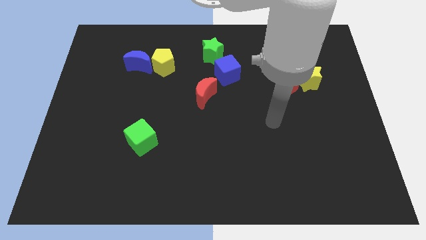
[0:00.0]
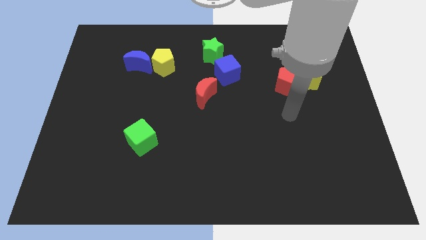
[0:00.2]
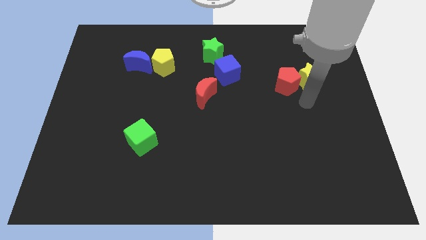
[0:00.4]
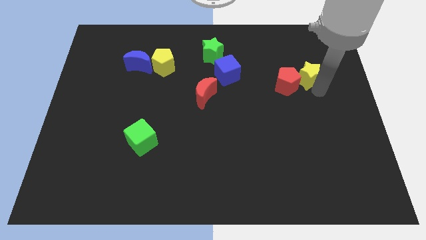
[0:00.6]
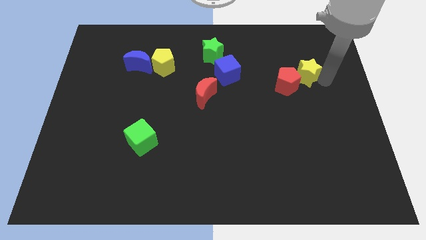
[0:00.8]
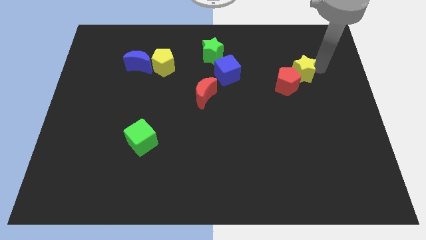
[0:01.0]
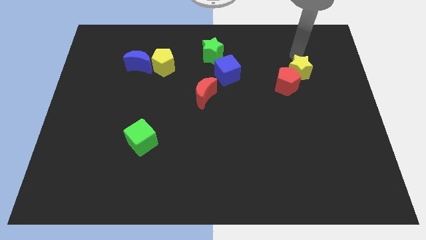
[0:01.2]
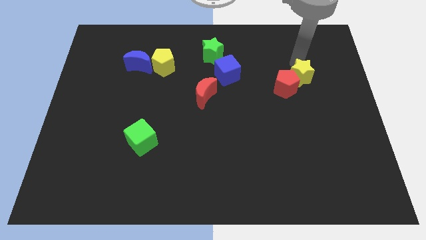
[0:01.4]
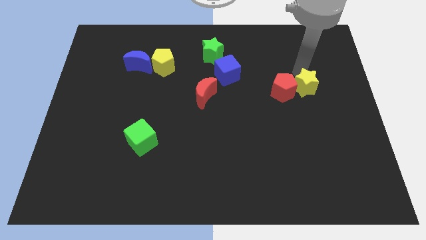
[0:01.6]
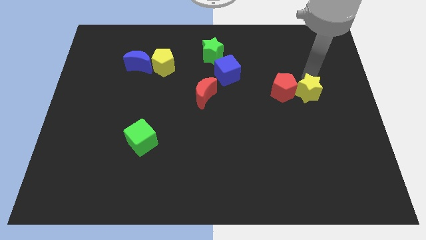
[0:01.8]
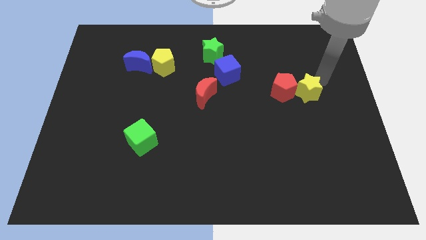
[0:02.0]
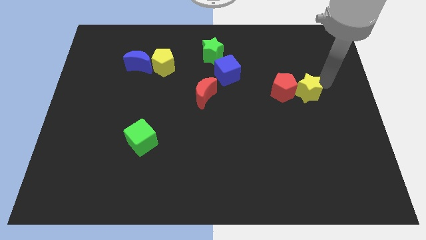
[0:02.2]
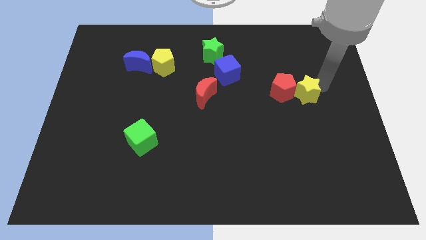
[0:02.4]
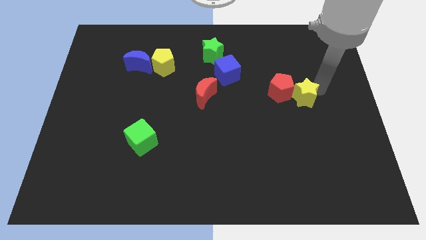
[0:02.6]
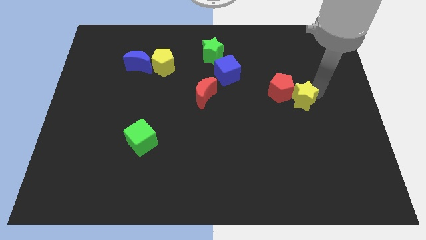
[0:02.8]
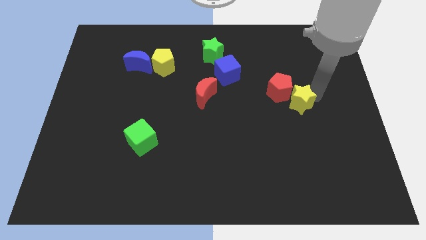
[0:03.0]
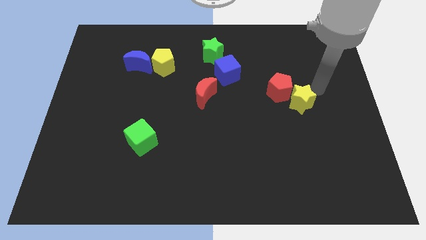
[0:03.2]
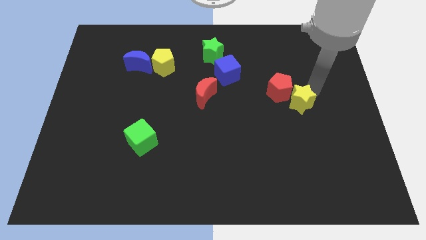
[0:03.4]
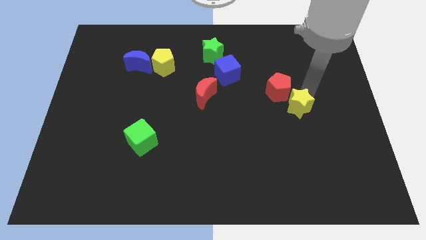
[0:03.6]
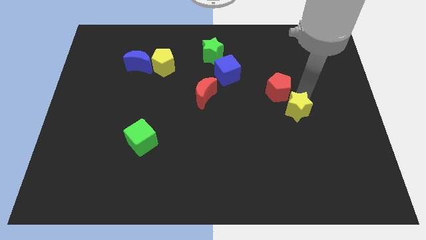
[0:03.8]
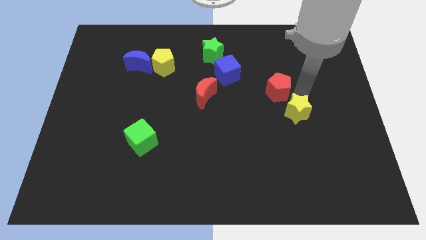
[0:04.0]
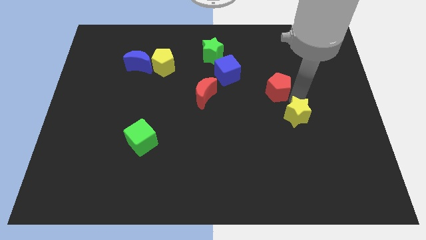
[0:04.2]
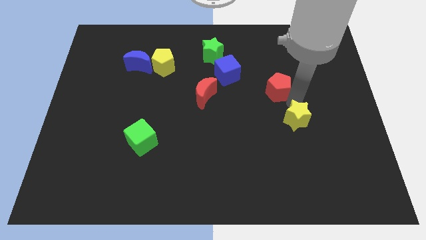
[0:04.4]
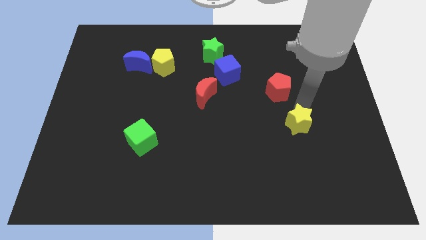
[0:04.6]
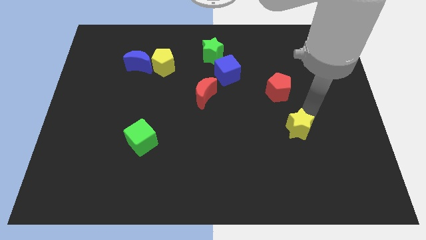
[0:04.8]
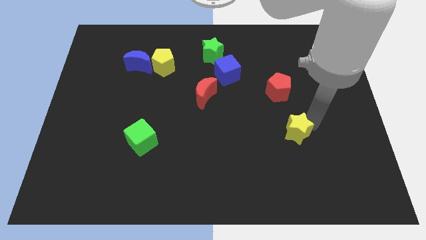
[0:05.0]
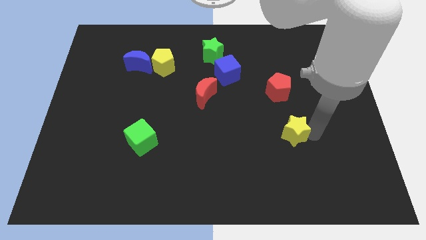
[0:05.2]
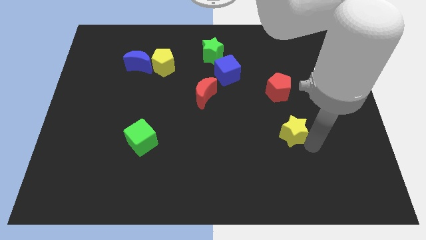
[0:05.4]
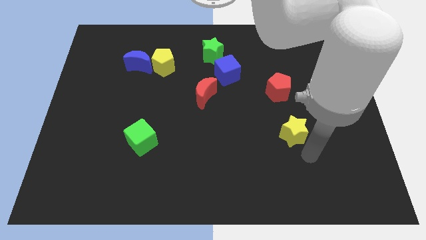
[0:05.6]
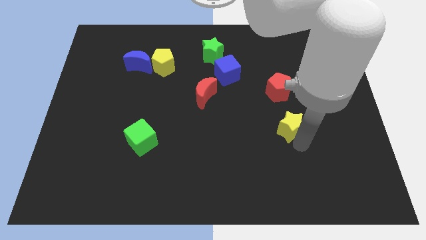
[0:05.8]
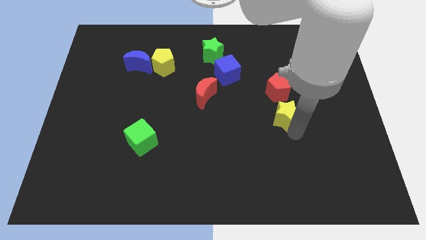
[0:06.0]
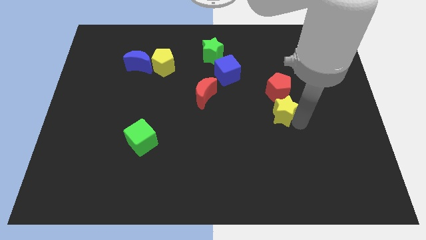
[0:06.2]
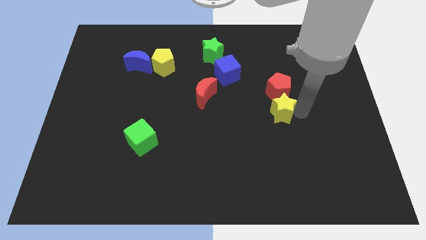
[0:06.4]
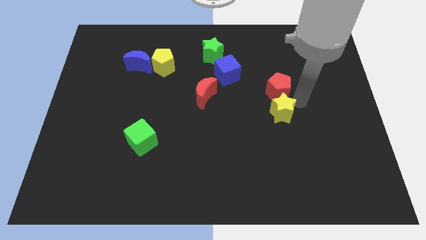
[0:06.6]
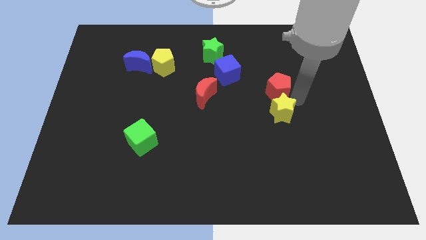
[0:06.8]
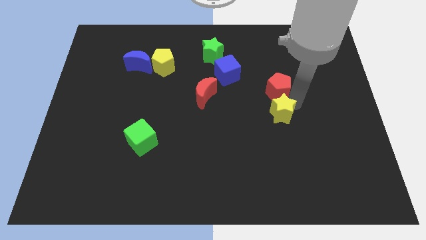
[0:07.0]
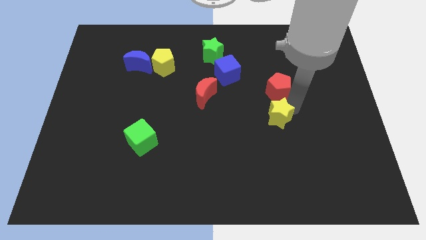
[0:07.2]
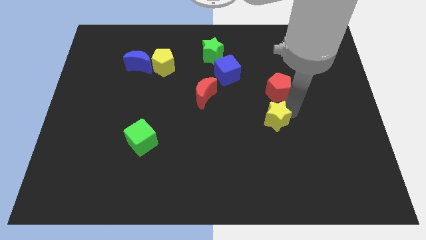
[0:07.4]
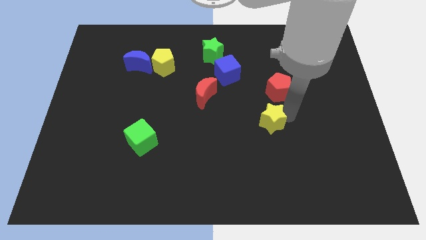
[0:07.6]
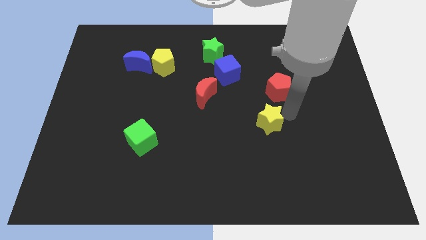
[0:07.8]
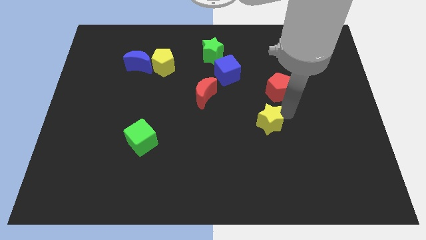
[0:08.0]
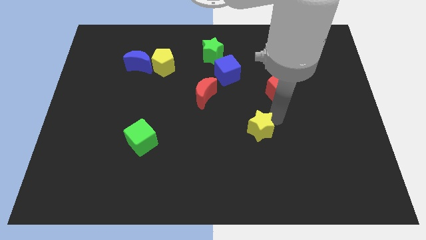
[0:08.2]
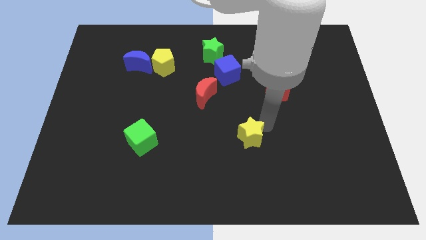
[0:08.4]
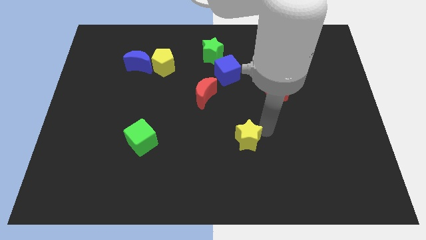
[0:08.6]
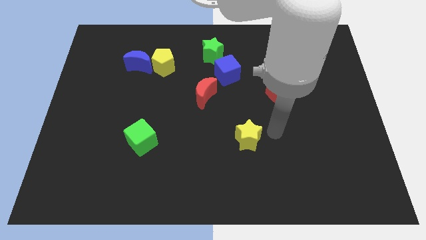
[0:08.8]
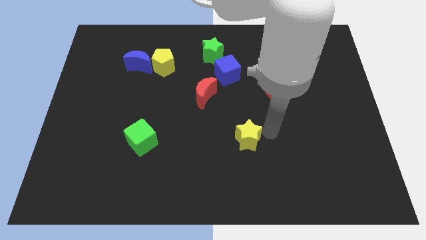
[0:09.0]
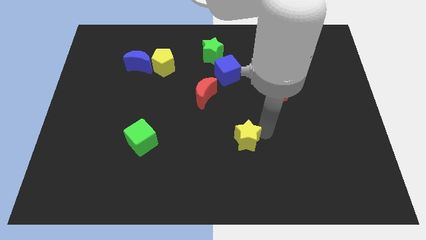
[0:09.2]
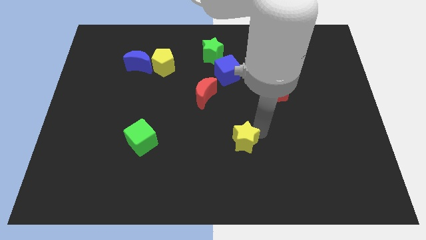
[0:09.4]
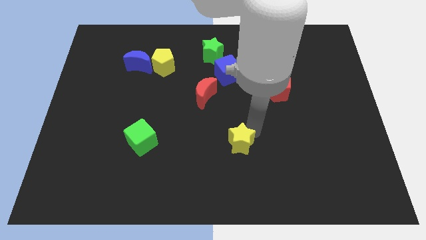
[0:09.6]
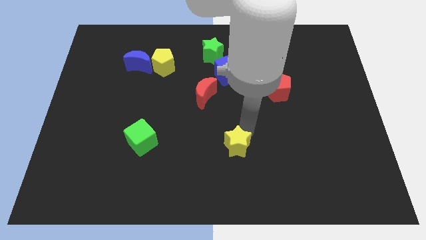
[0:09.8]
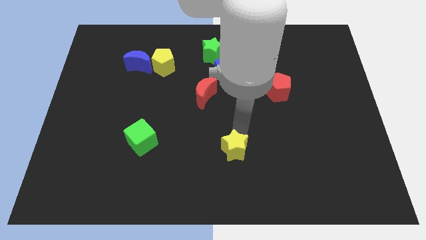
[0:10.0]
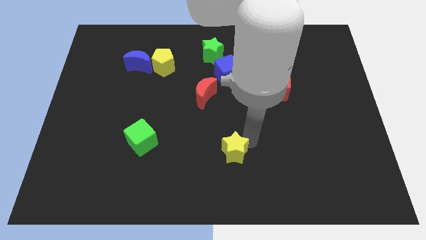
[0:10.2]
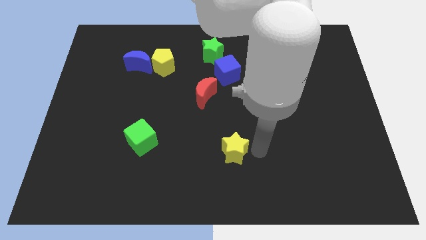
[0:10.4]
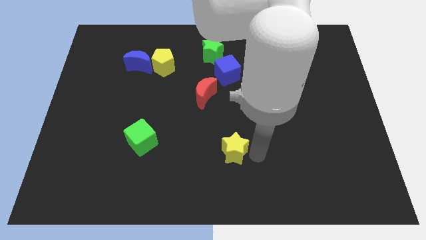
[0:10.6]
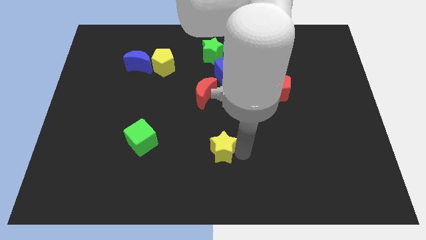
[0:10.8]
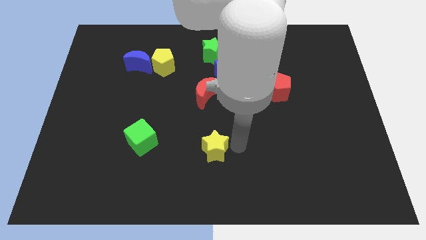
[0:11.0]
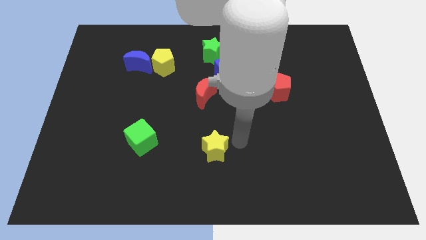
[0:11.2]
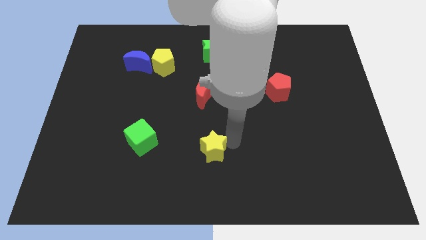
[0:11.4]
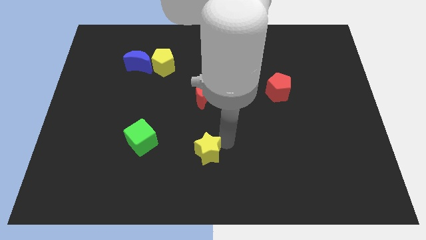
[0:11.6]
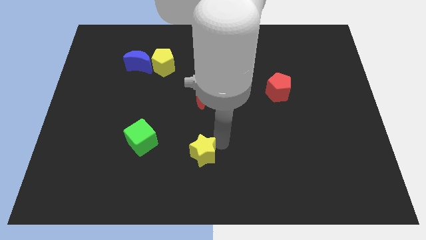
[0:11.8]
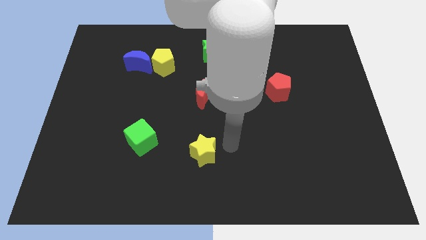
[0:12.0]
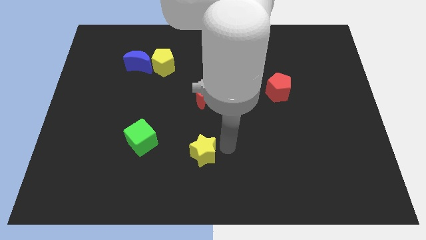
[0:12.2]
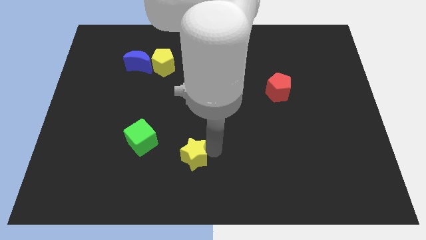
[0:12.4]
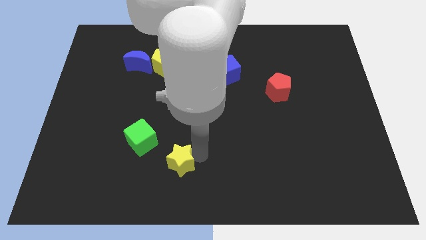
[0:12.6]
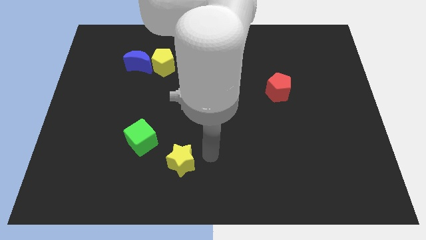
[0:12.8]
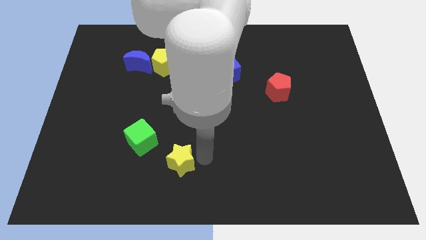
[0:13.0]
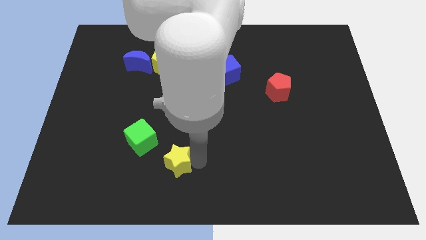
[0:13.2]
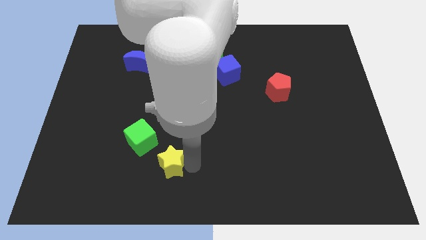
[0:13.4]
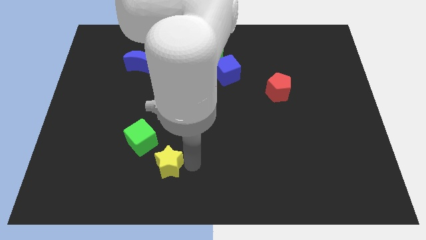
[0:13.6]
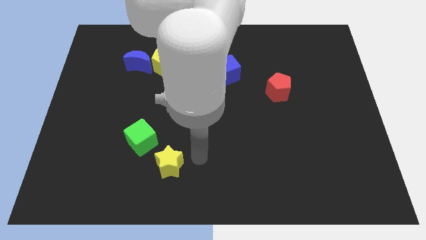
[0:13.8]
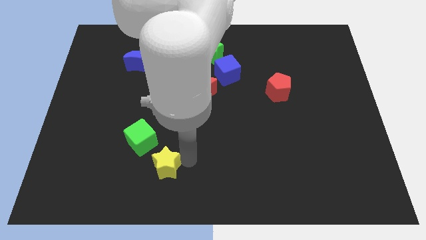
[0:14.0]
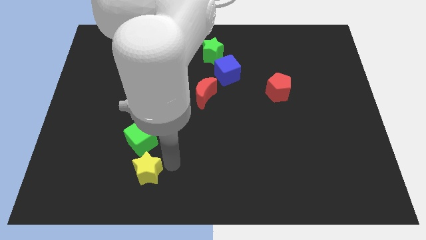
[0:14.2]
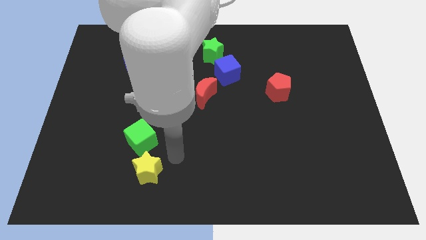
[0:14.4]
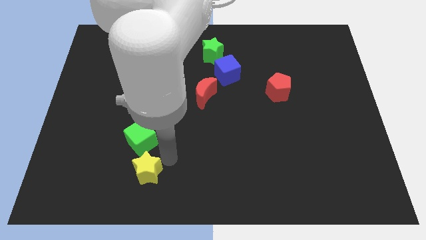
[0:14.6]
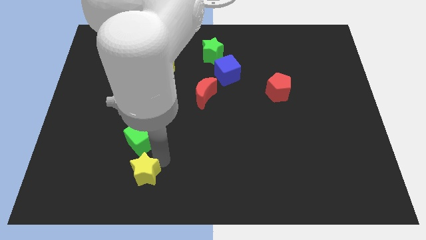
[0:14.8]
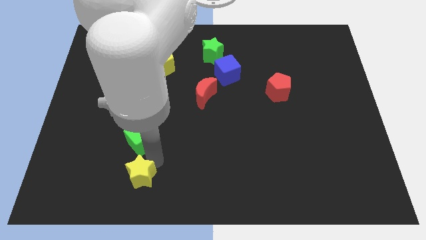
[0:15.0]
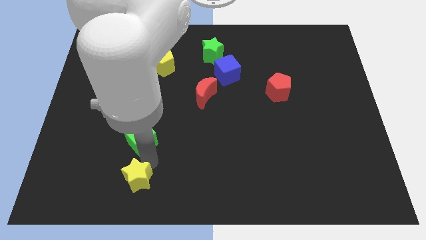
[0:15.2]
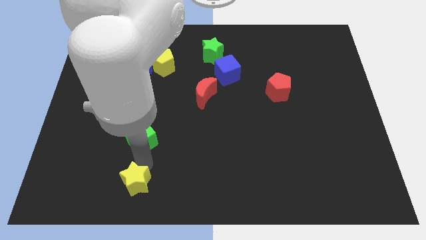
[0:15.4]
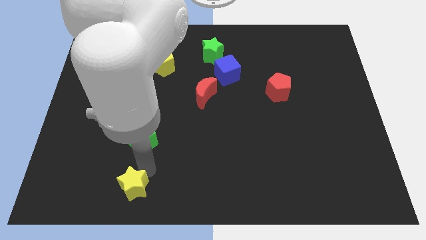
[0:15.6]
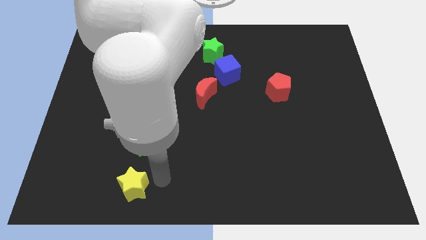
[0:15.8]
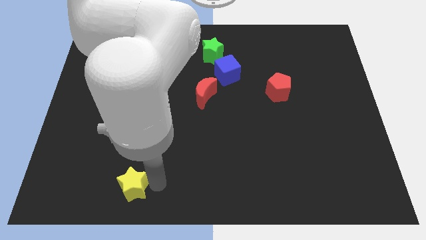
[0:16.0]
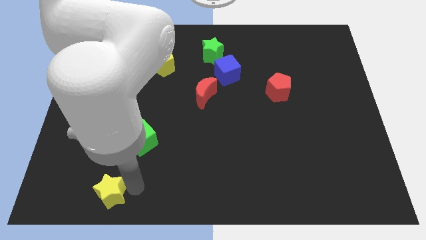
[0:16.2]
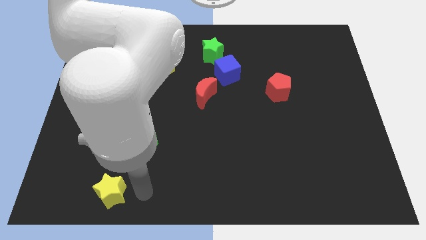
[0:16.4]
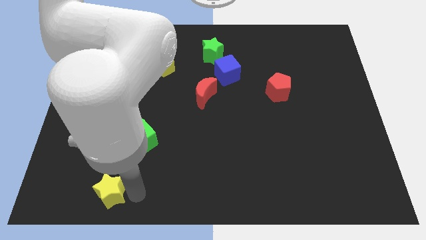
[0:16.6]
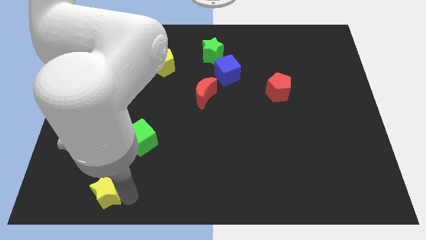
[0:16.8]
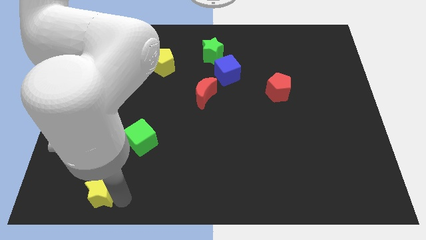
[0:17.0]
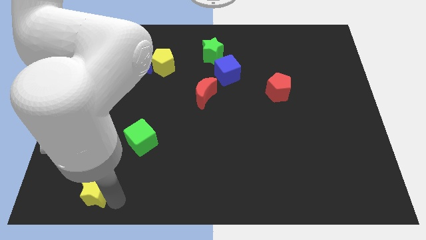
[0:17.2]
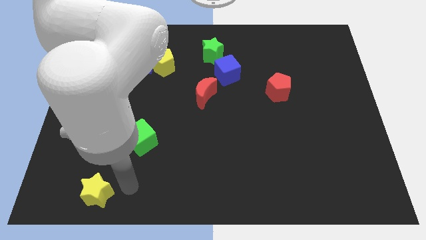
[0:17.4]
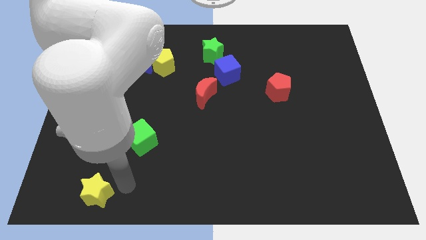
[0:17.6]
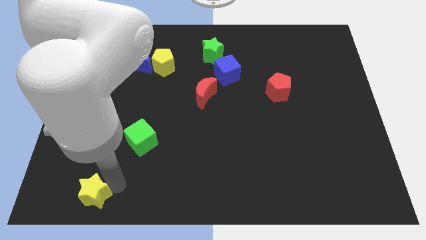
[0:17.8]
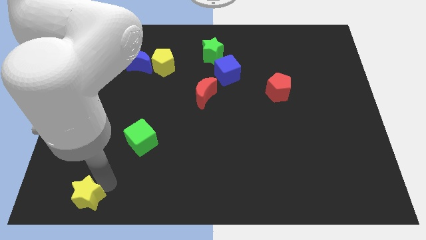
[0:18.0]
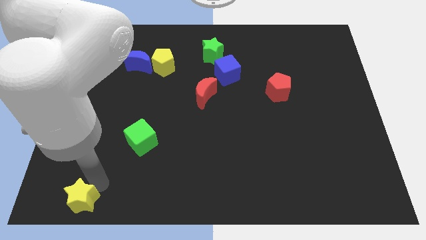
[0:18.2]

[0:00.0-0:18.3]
put the yellow star to the lower left corner
